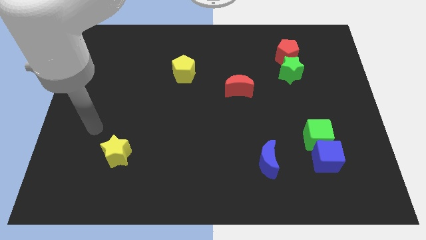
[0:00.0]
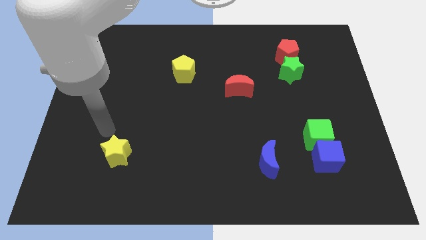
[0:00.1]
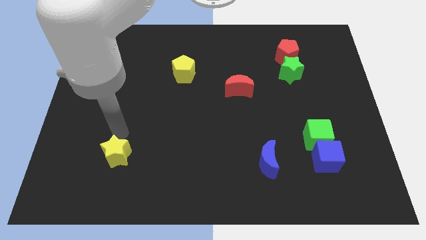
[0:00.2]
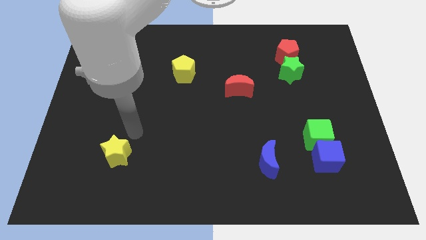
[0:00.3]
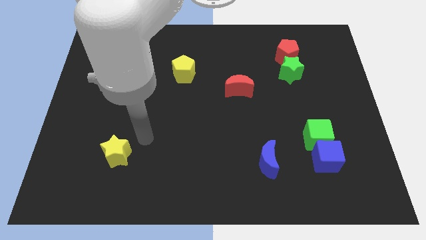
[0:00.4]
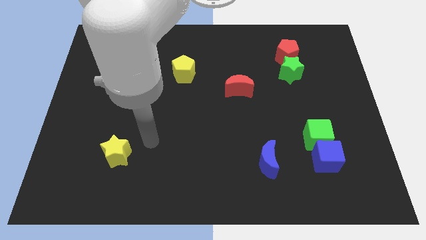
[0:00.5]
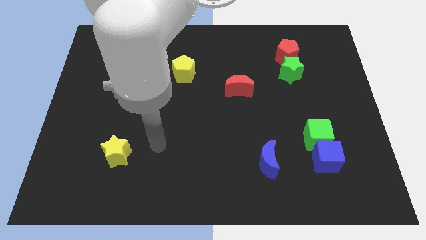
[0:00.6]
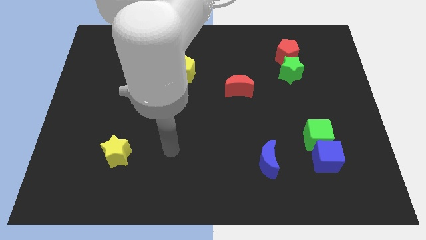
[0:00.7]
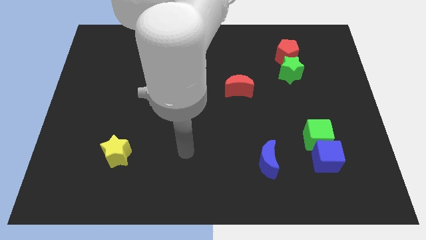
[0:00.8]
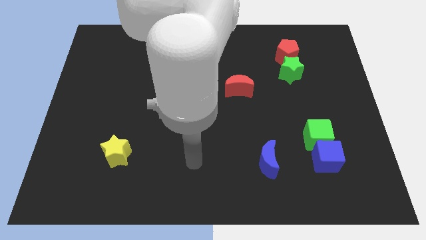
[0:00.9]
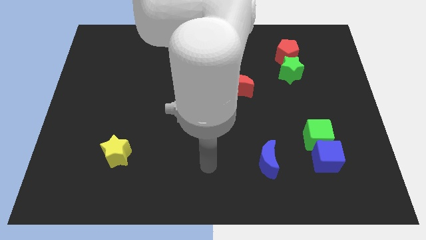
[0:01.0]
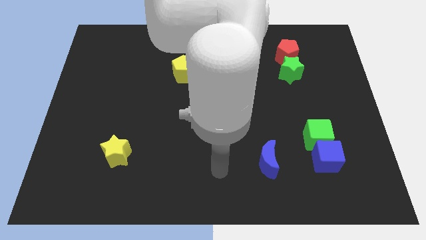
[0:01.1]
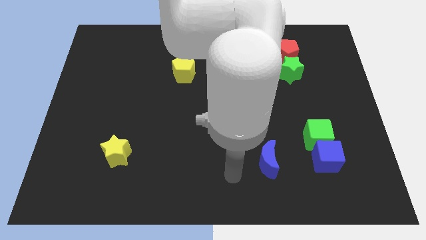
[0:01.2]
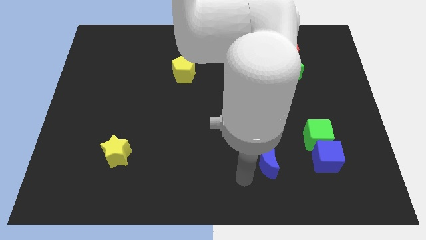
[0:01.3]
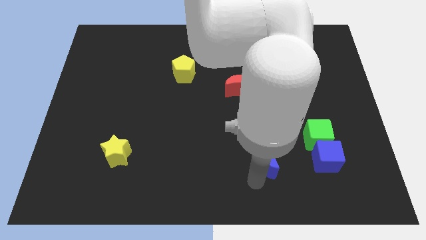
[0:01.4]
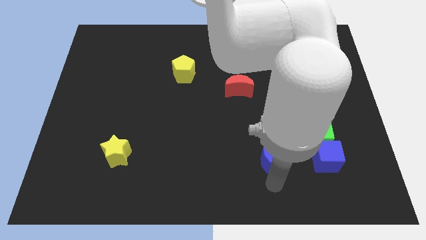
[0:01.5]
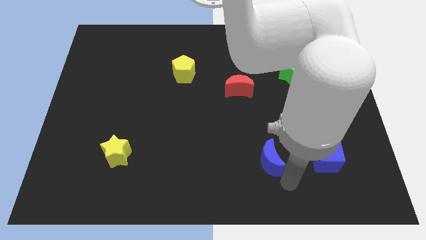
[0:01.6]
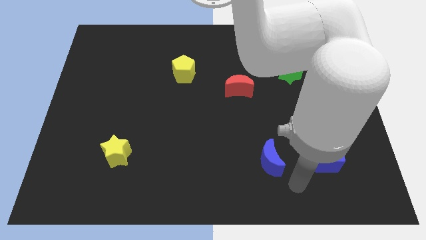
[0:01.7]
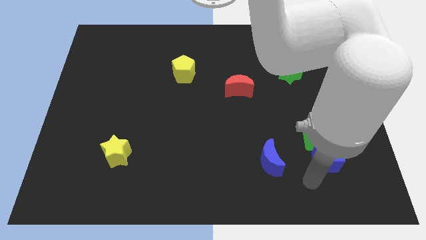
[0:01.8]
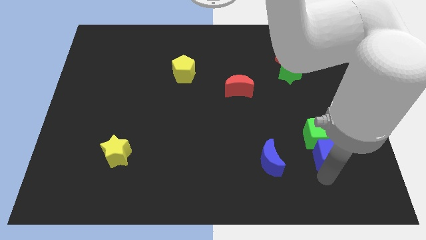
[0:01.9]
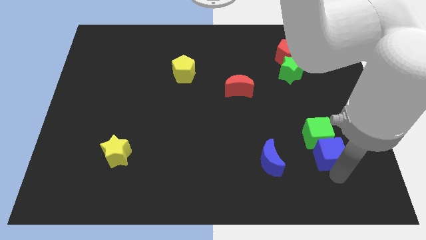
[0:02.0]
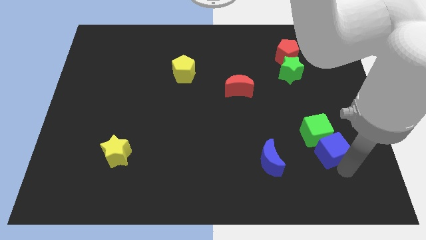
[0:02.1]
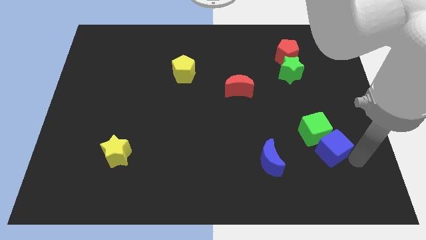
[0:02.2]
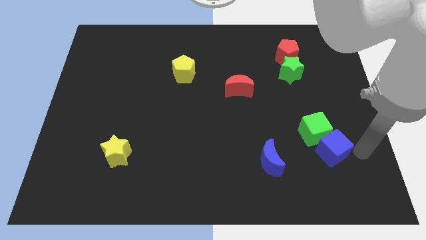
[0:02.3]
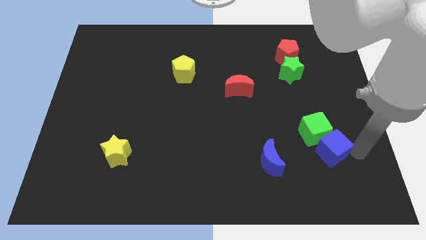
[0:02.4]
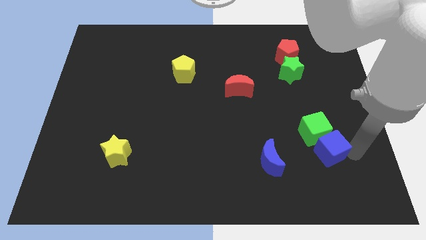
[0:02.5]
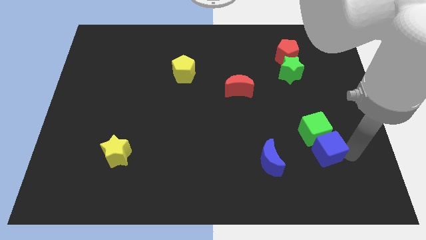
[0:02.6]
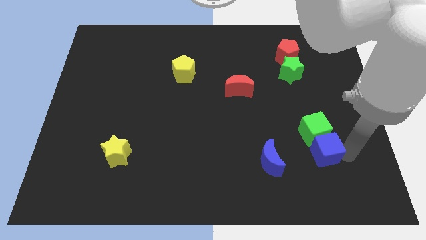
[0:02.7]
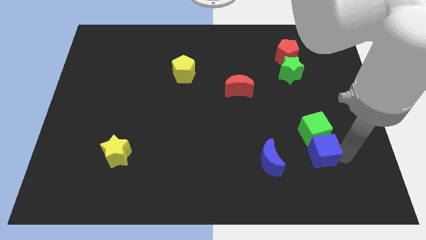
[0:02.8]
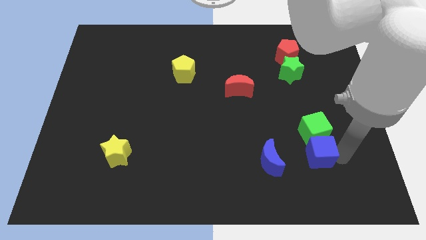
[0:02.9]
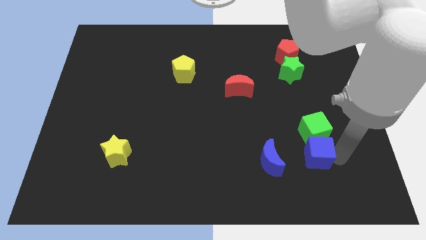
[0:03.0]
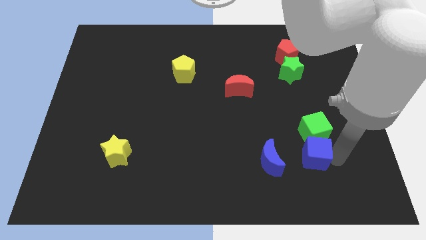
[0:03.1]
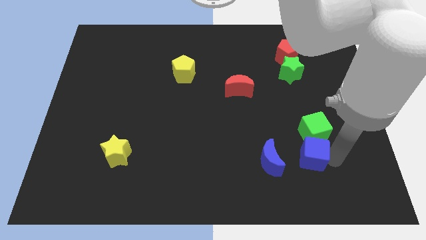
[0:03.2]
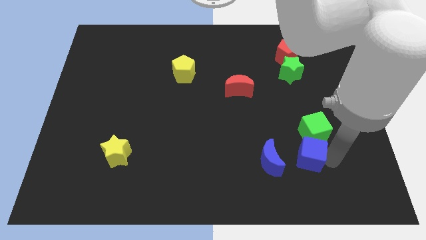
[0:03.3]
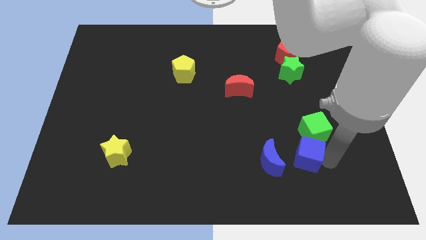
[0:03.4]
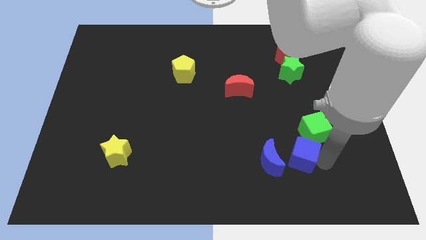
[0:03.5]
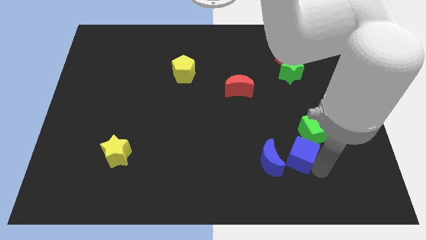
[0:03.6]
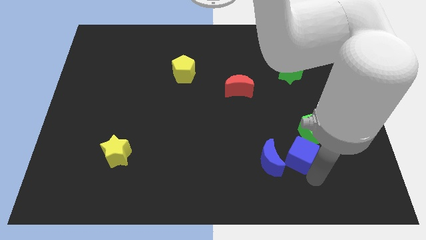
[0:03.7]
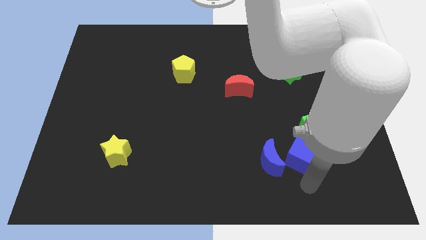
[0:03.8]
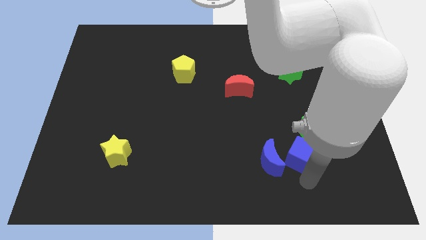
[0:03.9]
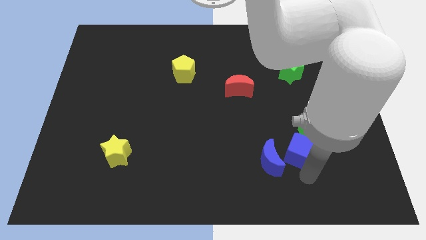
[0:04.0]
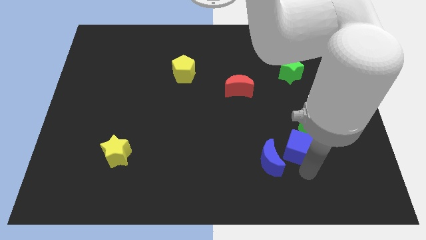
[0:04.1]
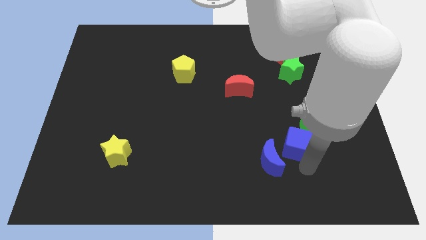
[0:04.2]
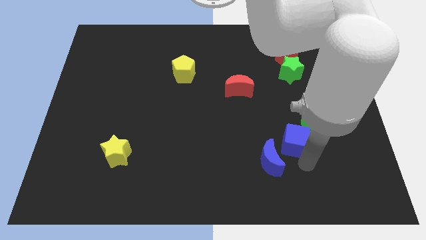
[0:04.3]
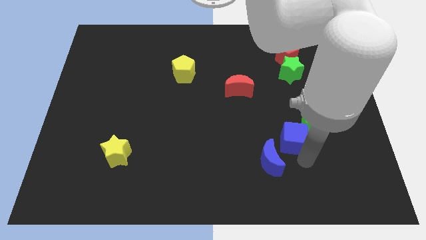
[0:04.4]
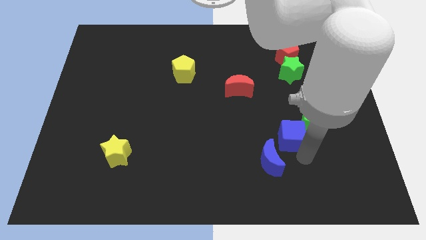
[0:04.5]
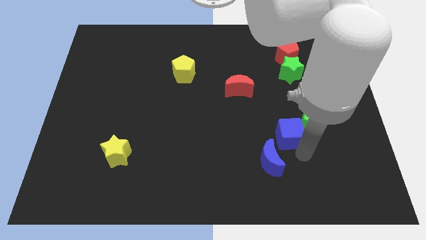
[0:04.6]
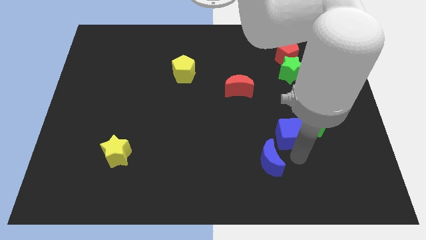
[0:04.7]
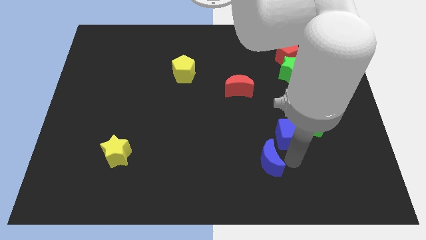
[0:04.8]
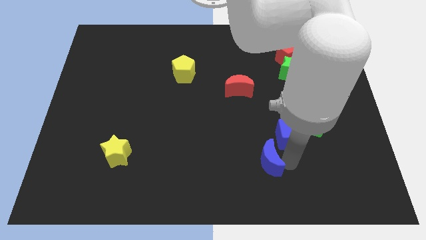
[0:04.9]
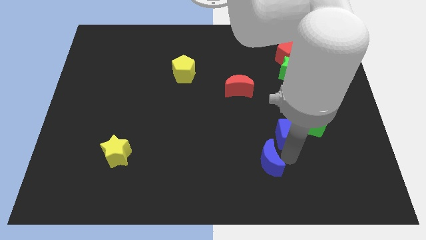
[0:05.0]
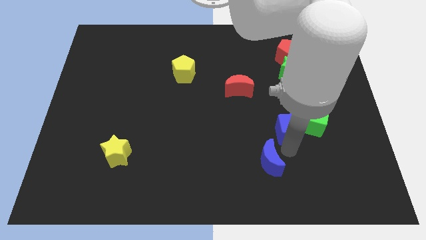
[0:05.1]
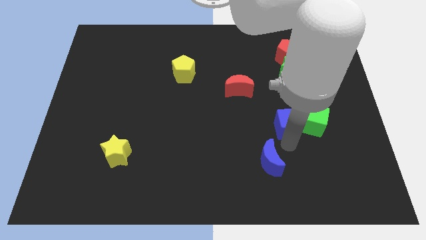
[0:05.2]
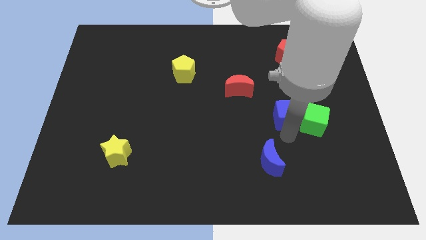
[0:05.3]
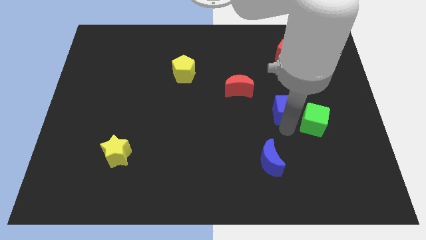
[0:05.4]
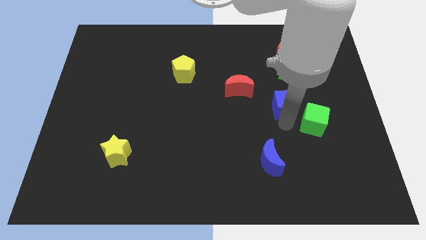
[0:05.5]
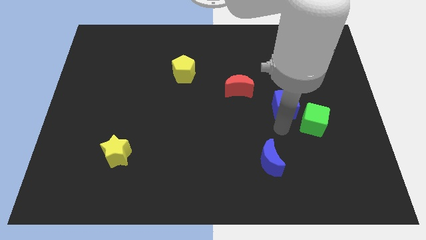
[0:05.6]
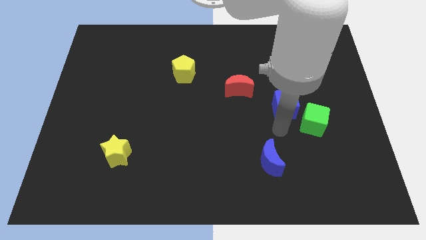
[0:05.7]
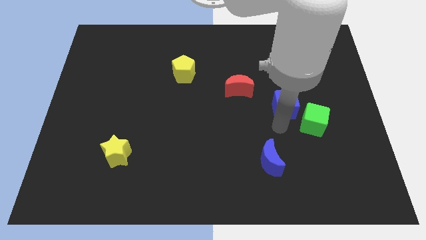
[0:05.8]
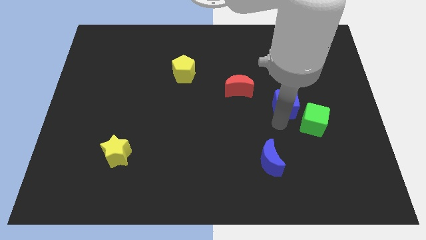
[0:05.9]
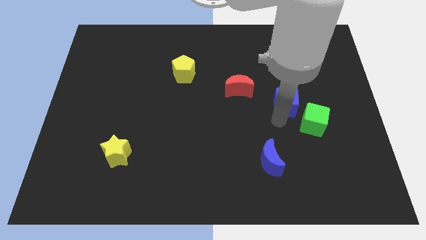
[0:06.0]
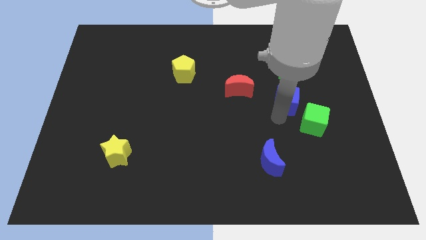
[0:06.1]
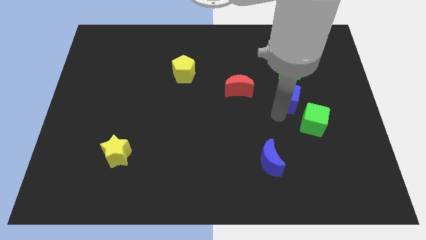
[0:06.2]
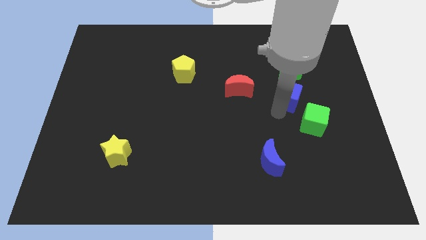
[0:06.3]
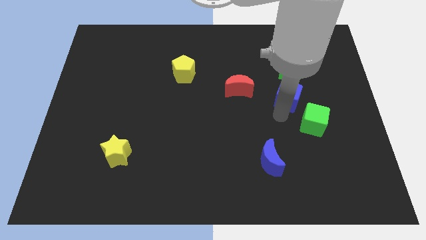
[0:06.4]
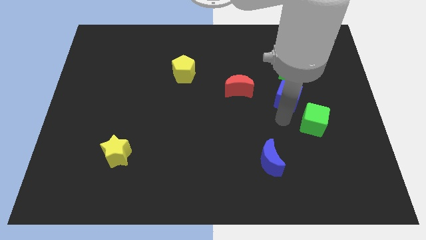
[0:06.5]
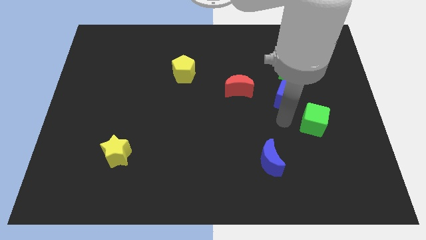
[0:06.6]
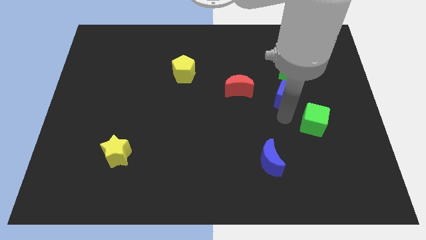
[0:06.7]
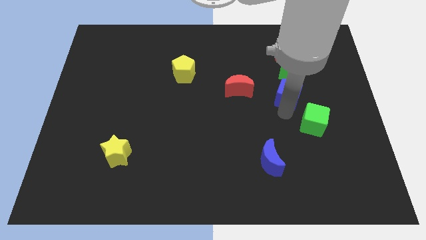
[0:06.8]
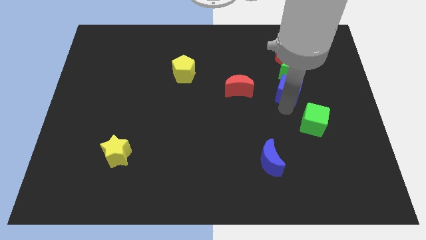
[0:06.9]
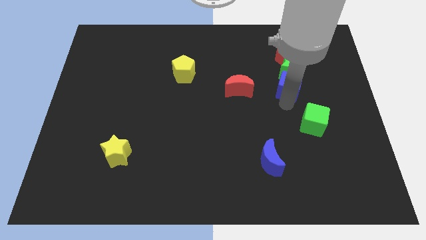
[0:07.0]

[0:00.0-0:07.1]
slide the blue cube next to the green star
